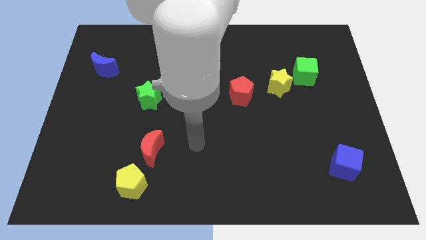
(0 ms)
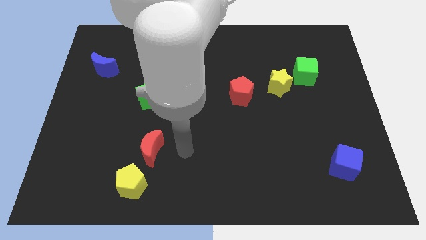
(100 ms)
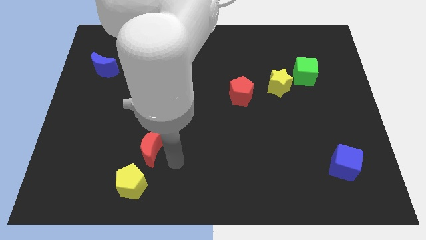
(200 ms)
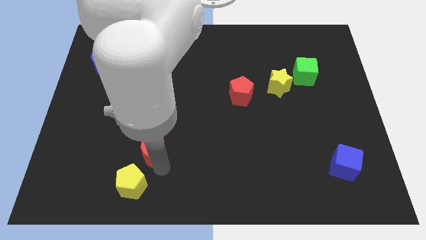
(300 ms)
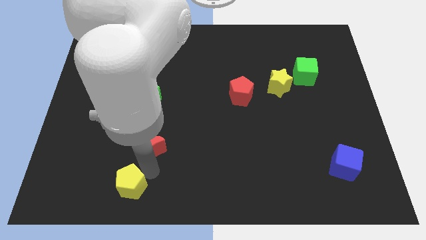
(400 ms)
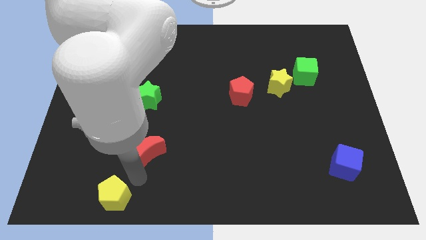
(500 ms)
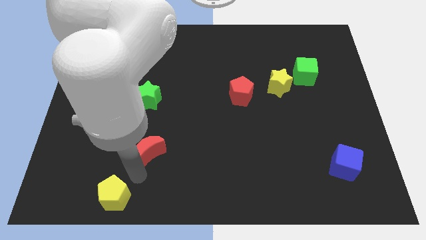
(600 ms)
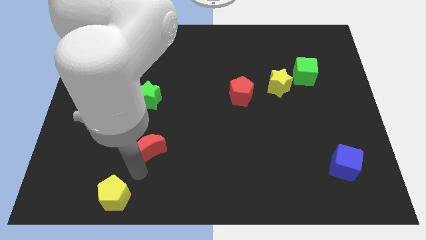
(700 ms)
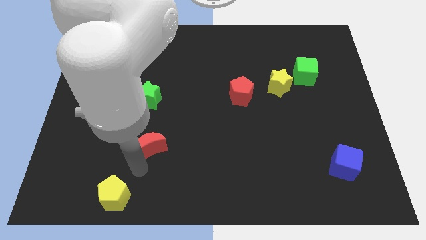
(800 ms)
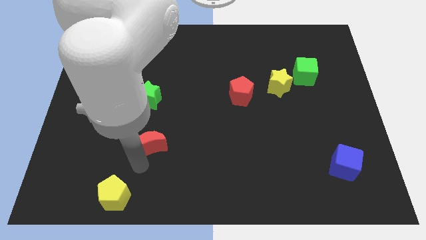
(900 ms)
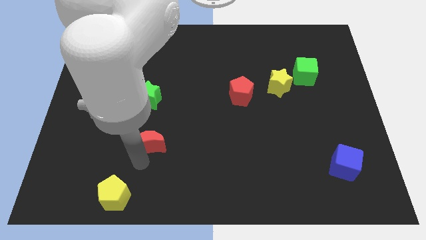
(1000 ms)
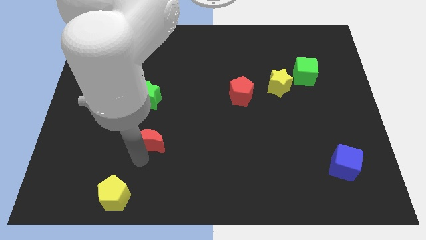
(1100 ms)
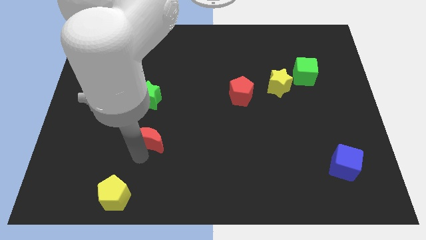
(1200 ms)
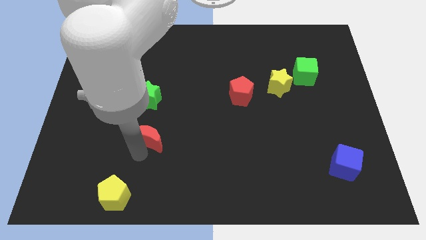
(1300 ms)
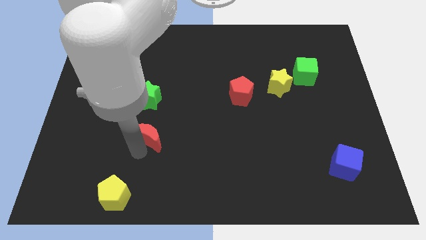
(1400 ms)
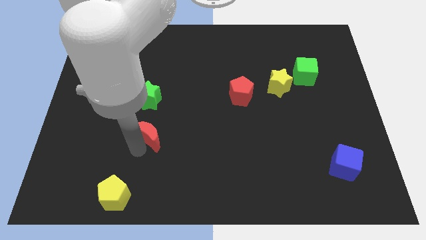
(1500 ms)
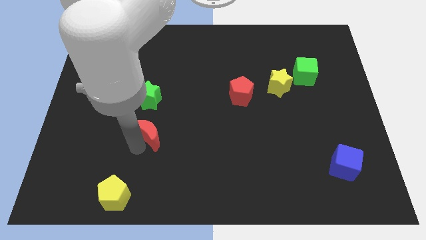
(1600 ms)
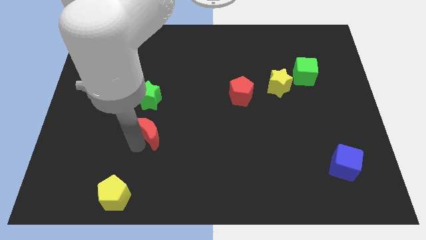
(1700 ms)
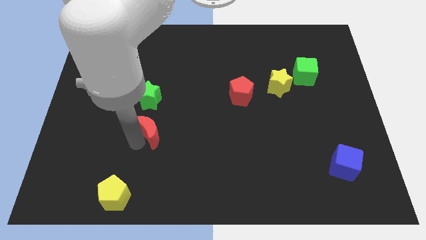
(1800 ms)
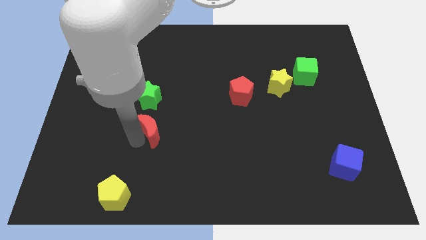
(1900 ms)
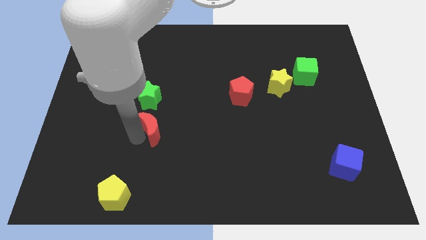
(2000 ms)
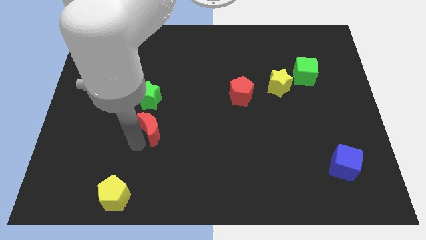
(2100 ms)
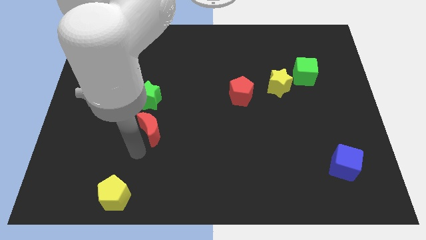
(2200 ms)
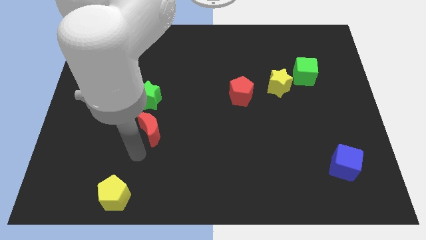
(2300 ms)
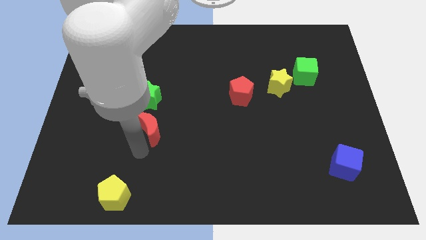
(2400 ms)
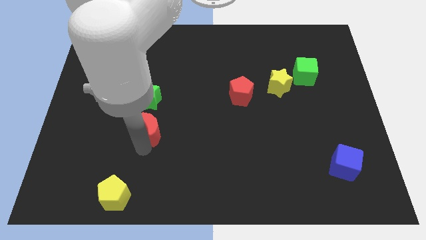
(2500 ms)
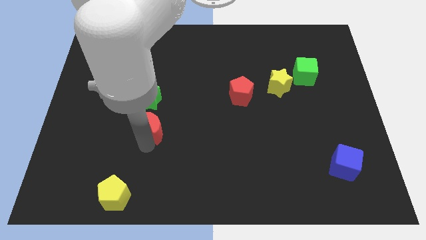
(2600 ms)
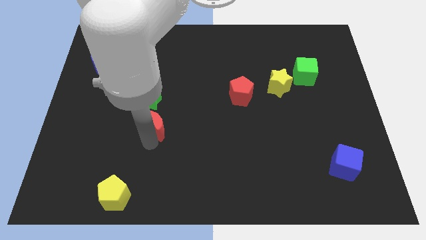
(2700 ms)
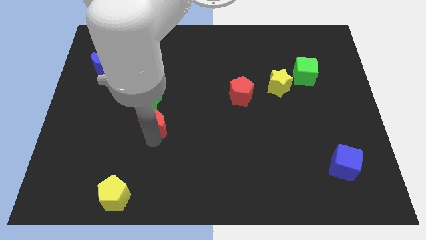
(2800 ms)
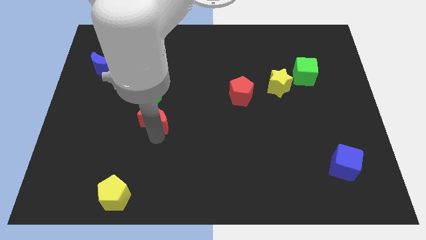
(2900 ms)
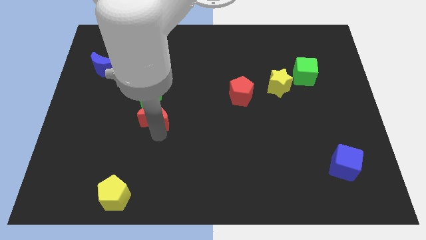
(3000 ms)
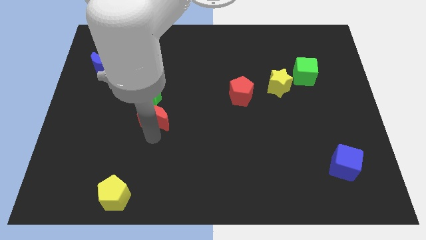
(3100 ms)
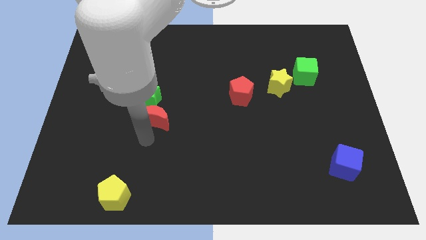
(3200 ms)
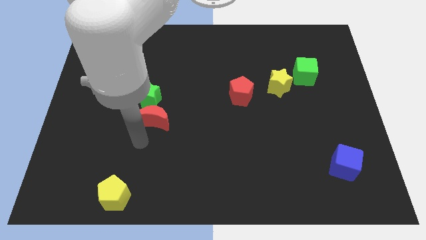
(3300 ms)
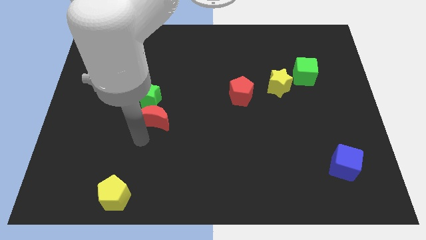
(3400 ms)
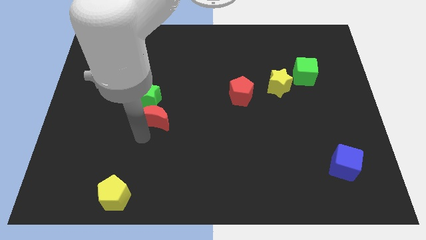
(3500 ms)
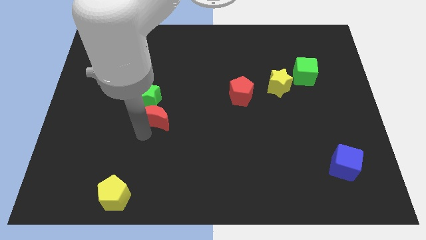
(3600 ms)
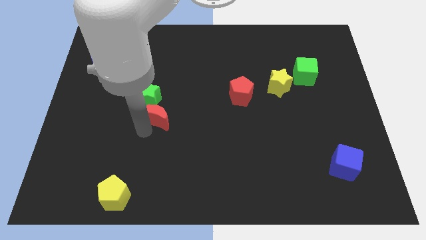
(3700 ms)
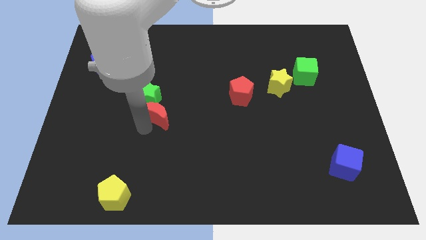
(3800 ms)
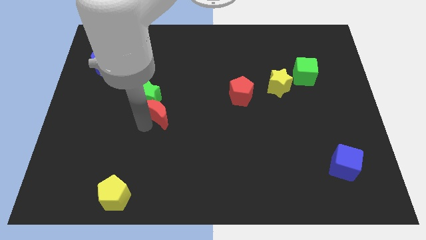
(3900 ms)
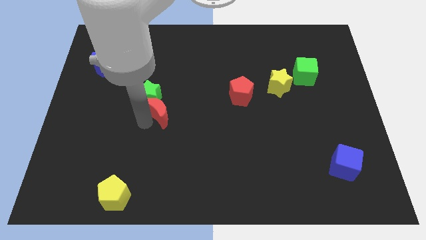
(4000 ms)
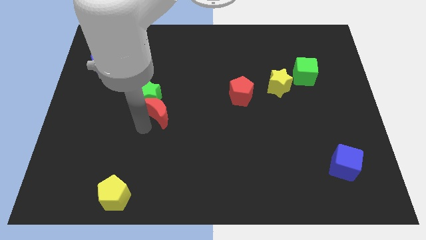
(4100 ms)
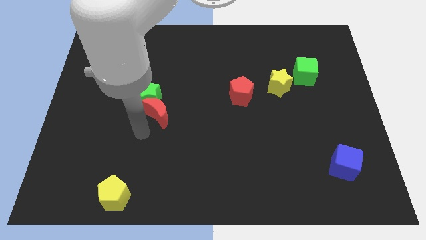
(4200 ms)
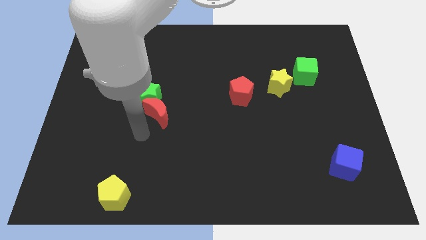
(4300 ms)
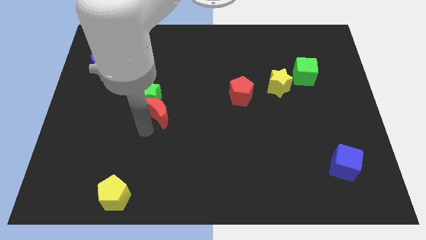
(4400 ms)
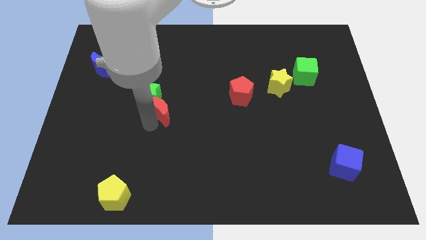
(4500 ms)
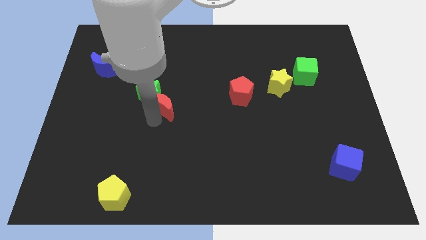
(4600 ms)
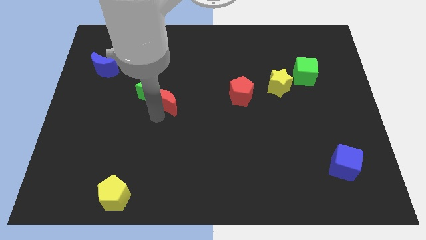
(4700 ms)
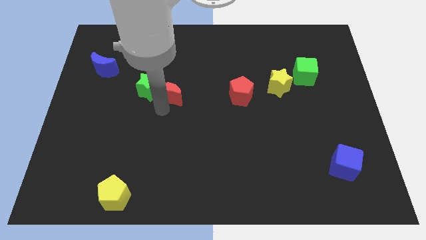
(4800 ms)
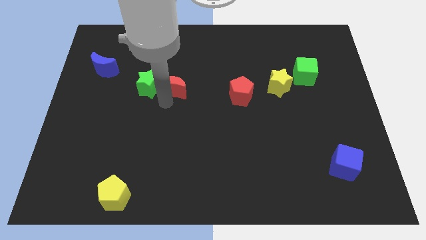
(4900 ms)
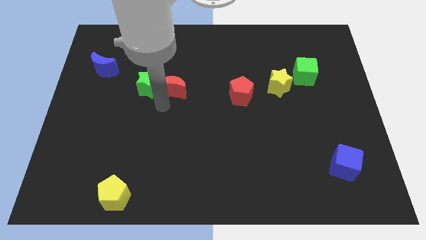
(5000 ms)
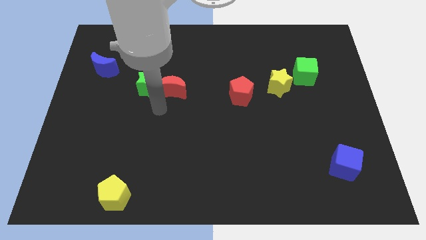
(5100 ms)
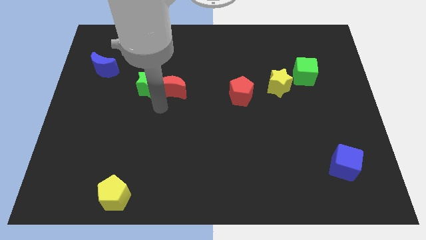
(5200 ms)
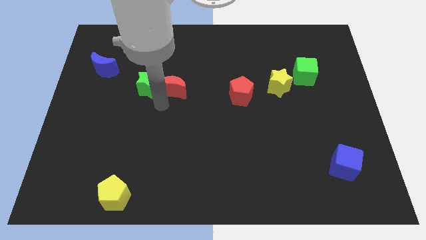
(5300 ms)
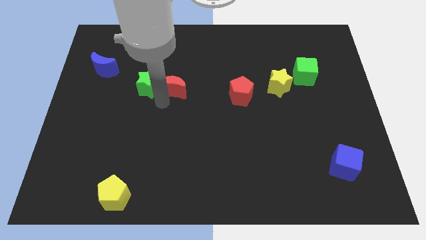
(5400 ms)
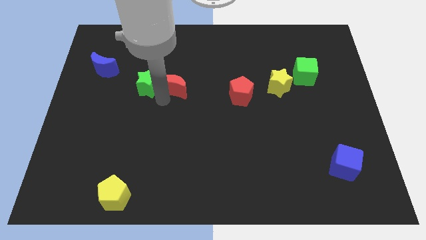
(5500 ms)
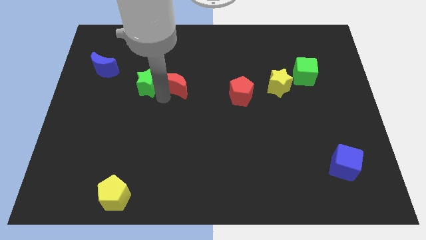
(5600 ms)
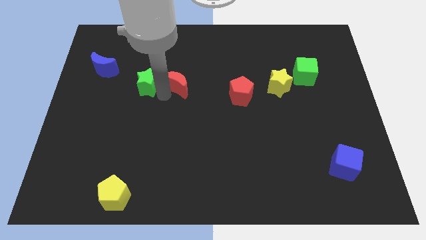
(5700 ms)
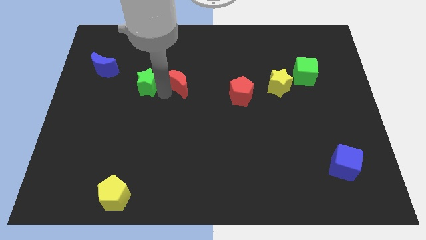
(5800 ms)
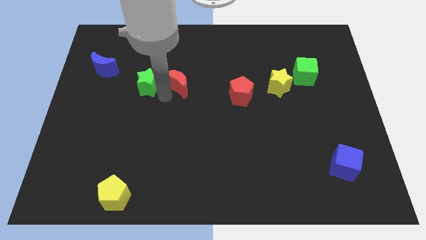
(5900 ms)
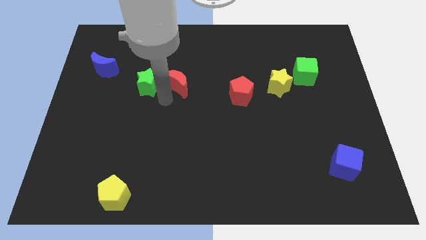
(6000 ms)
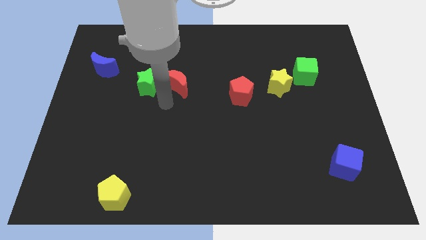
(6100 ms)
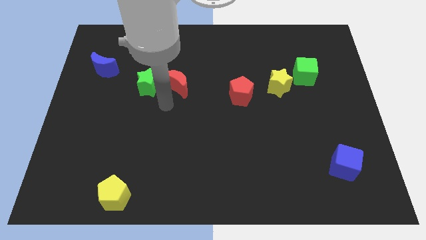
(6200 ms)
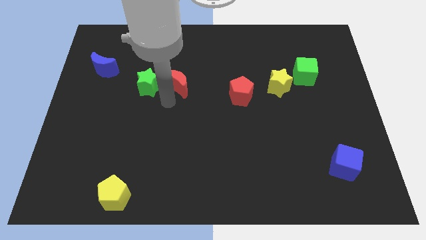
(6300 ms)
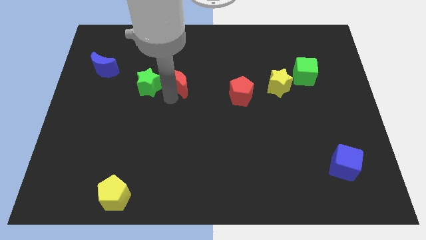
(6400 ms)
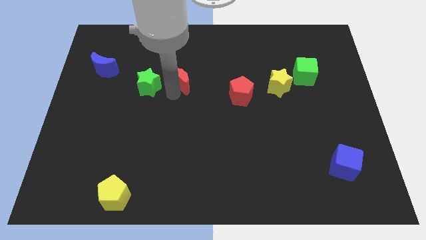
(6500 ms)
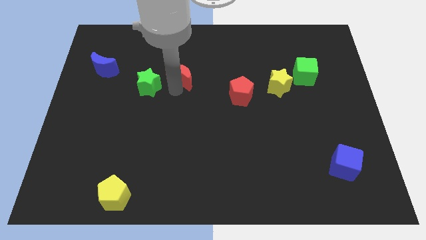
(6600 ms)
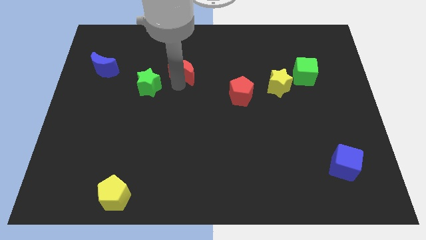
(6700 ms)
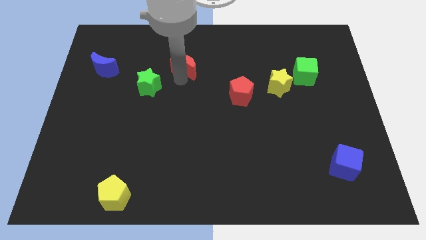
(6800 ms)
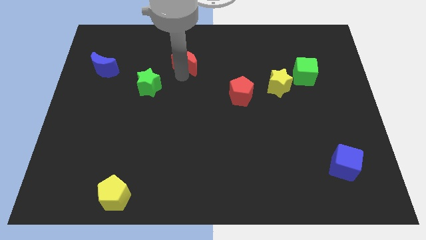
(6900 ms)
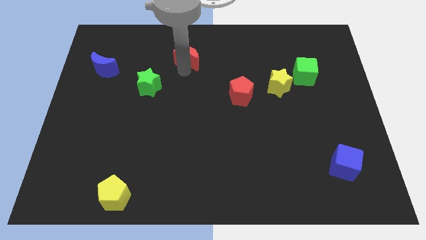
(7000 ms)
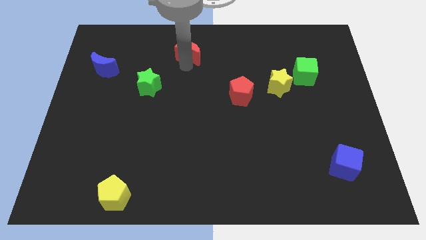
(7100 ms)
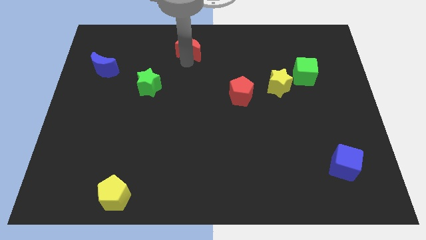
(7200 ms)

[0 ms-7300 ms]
push the red moon to the top

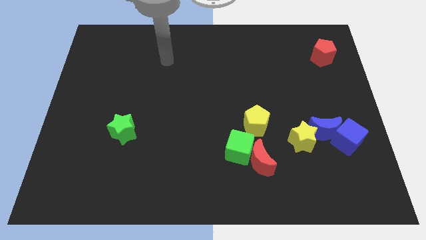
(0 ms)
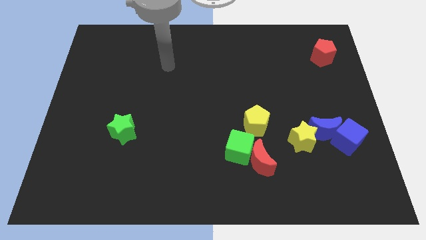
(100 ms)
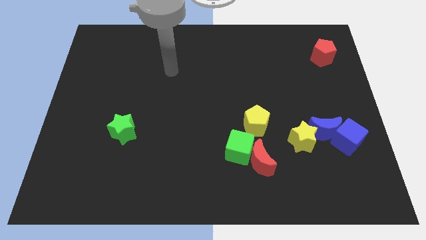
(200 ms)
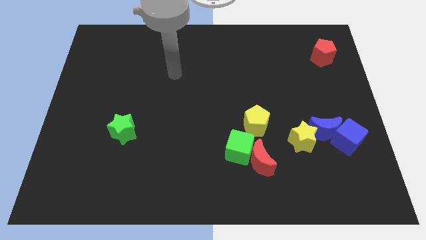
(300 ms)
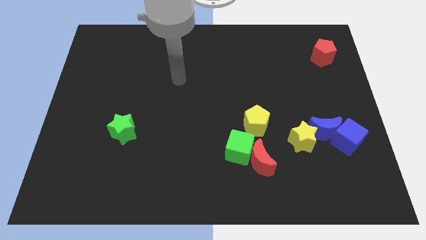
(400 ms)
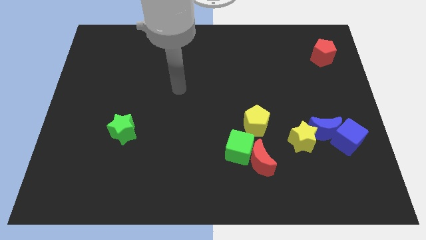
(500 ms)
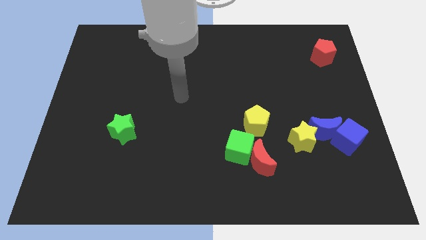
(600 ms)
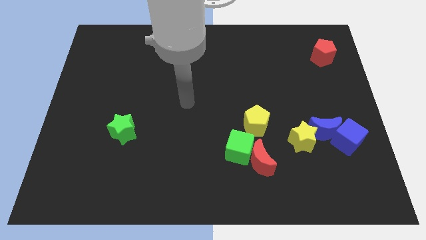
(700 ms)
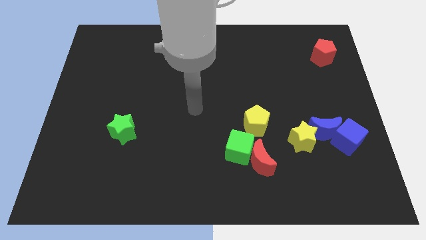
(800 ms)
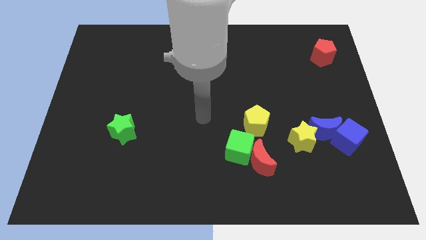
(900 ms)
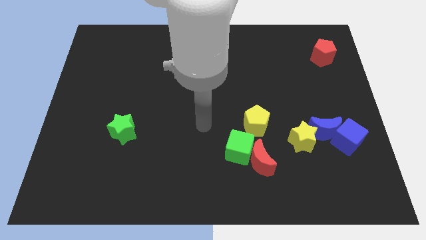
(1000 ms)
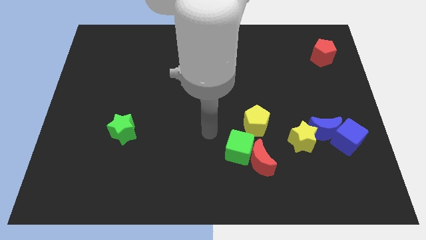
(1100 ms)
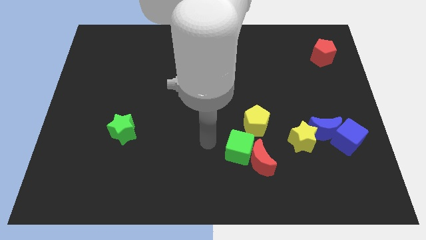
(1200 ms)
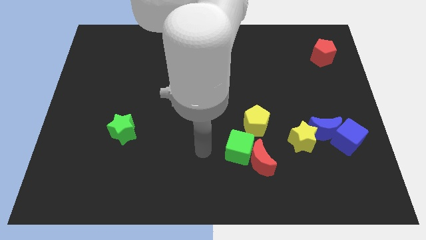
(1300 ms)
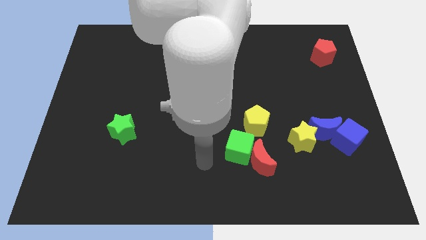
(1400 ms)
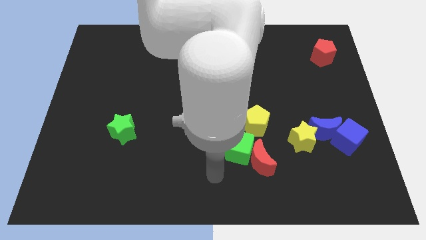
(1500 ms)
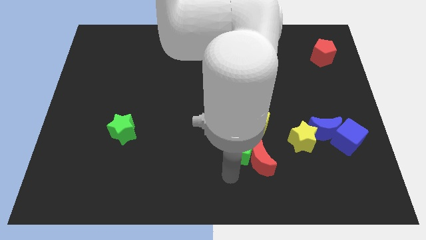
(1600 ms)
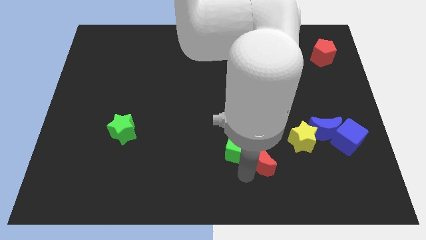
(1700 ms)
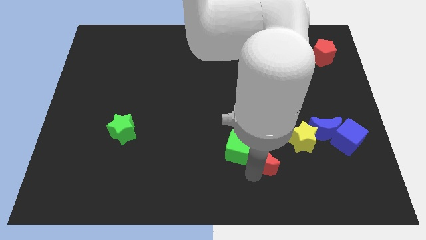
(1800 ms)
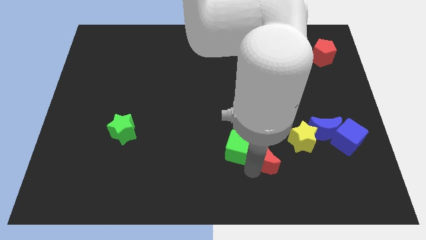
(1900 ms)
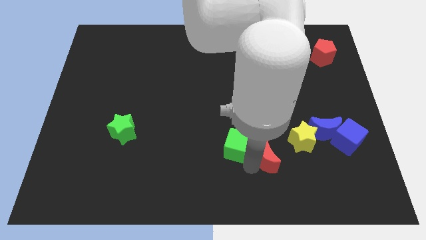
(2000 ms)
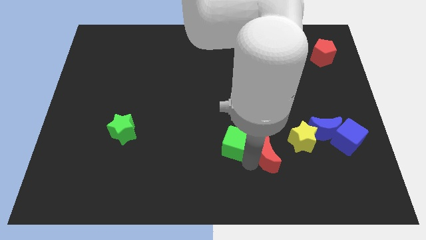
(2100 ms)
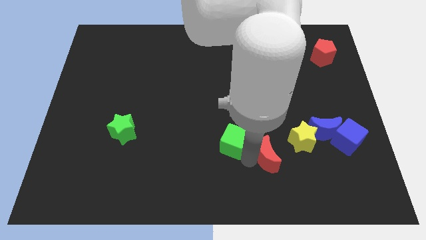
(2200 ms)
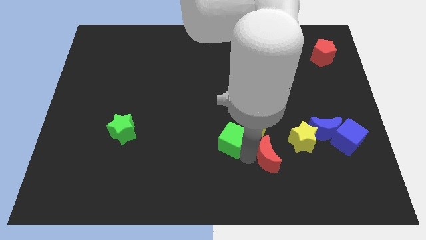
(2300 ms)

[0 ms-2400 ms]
move the green cube to the middle of the board
